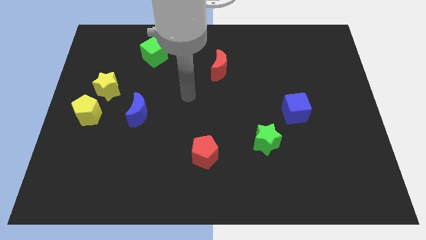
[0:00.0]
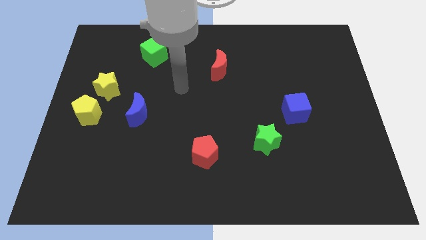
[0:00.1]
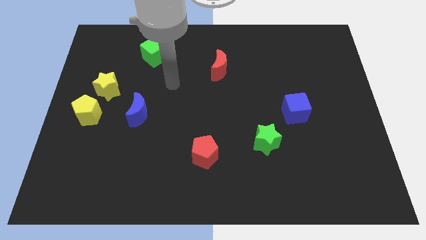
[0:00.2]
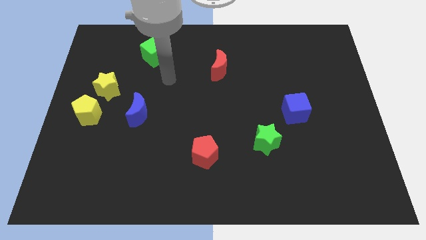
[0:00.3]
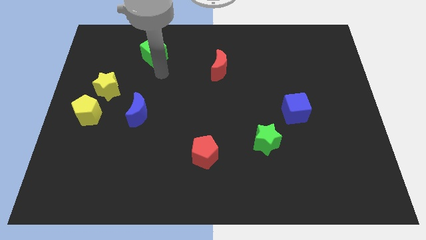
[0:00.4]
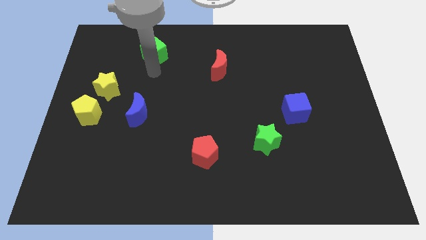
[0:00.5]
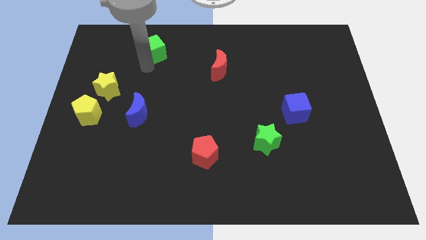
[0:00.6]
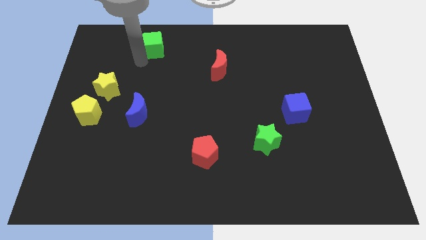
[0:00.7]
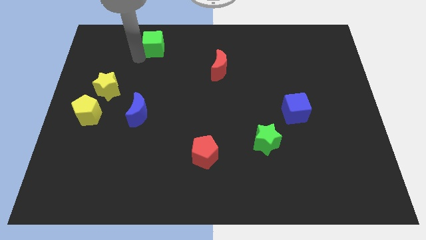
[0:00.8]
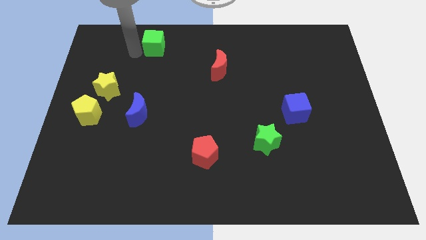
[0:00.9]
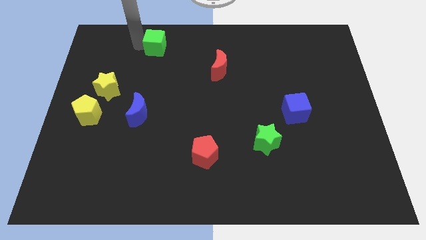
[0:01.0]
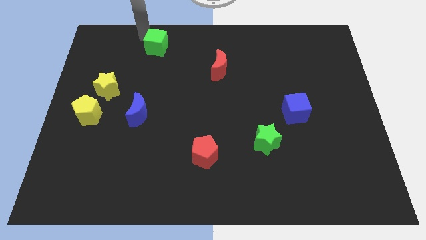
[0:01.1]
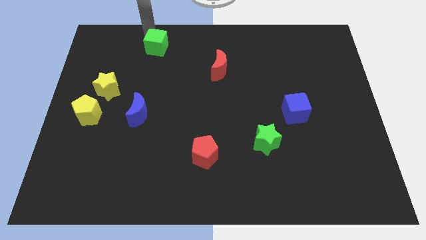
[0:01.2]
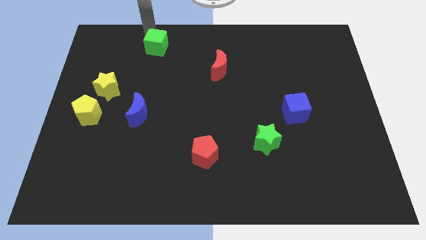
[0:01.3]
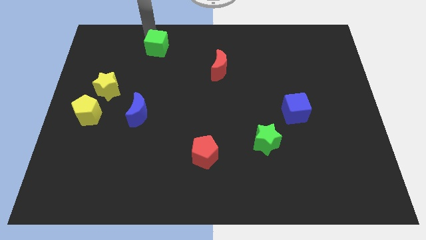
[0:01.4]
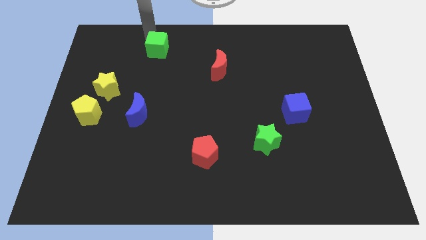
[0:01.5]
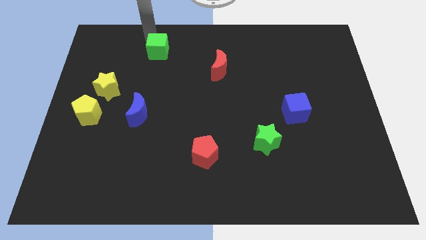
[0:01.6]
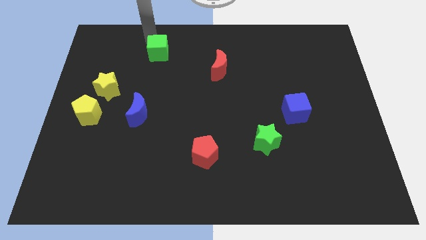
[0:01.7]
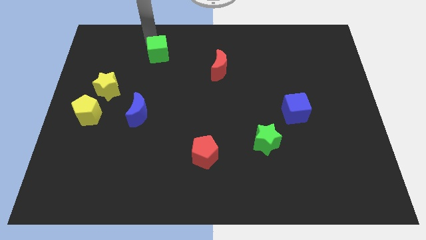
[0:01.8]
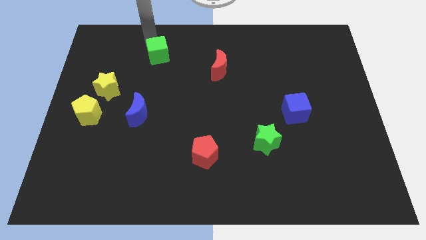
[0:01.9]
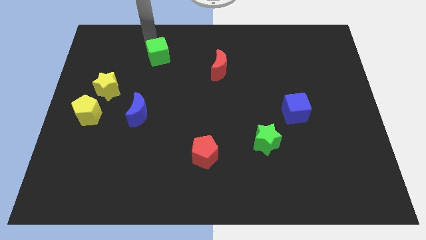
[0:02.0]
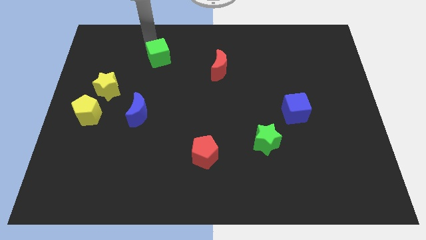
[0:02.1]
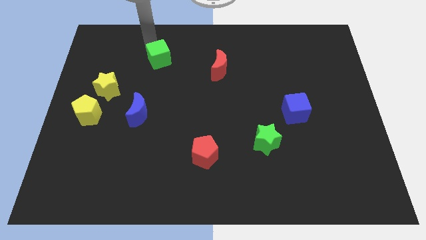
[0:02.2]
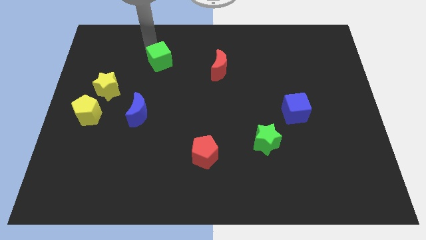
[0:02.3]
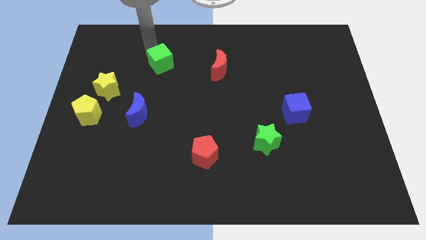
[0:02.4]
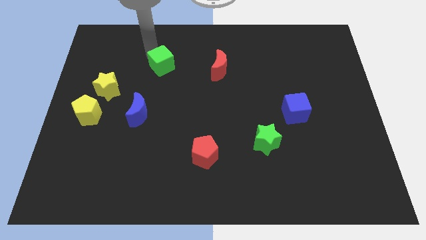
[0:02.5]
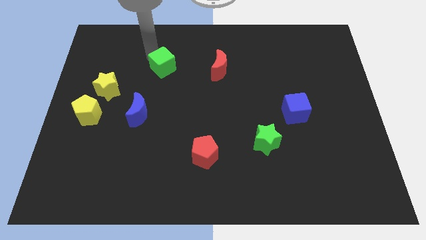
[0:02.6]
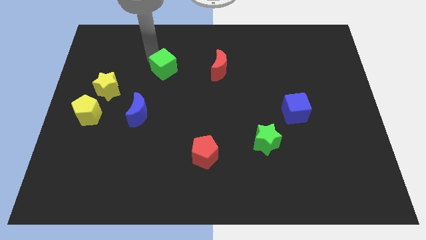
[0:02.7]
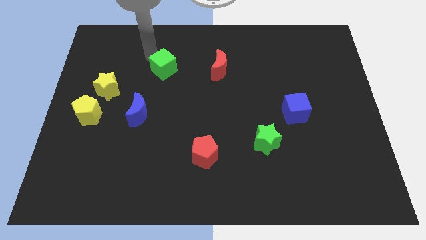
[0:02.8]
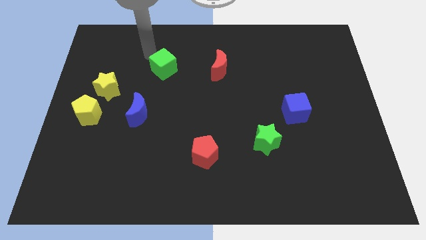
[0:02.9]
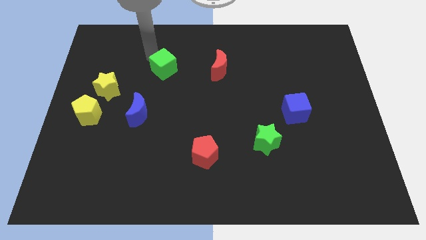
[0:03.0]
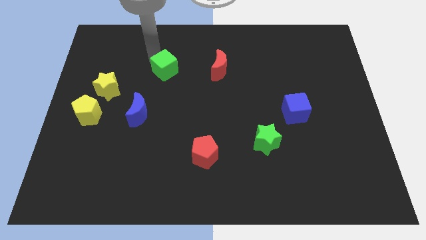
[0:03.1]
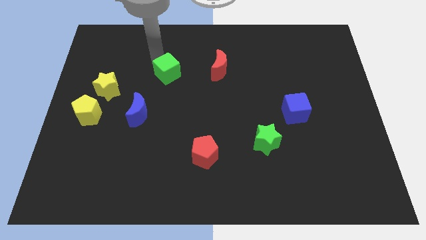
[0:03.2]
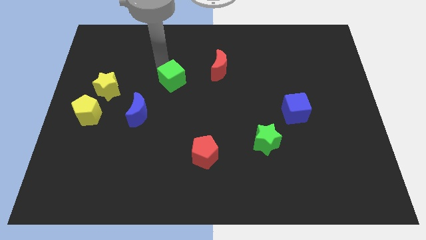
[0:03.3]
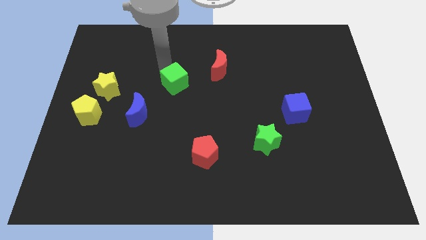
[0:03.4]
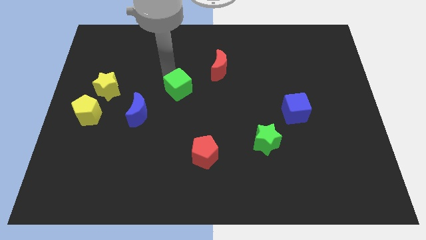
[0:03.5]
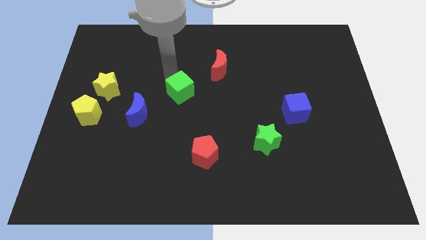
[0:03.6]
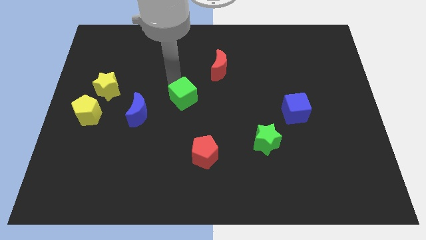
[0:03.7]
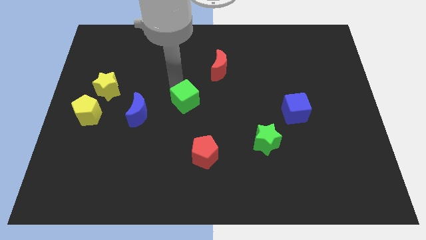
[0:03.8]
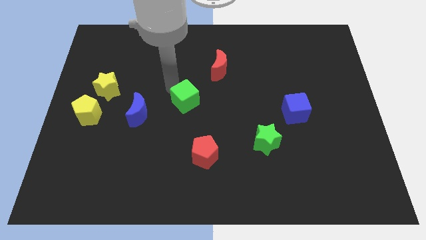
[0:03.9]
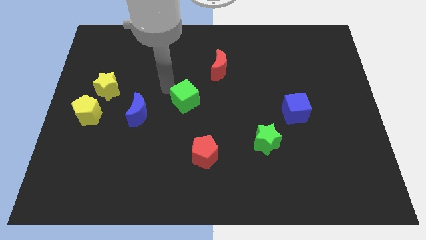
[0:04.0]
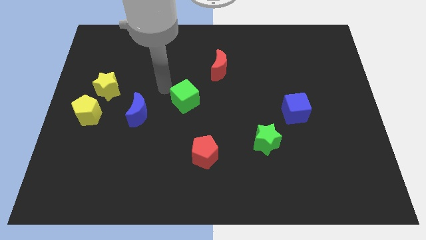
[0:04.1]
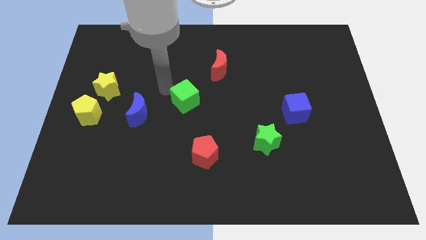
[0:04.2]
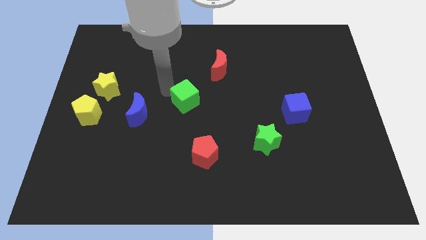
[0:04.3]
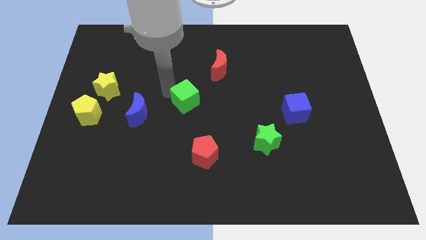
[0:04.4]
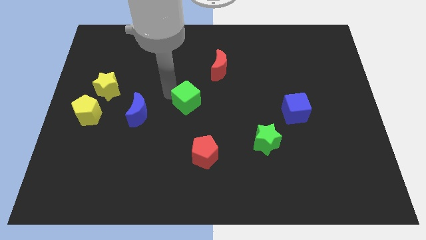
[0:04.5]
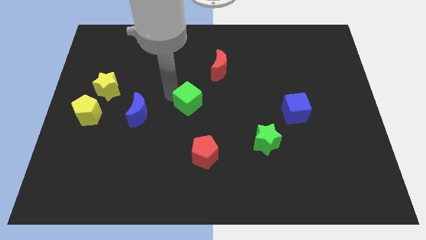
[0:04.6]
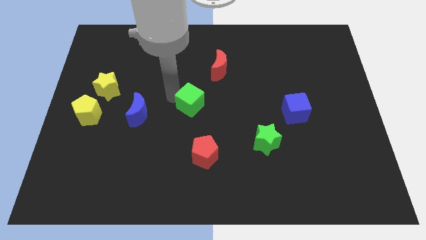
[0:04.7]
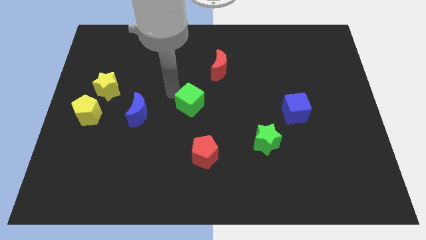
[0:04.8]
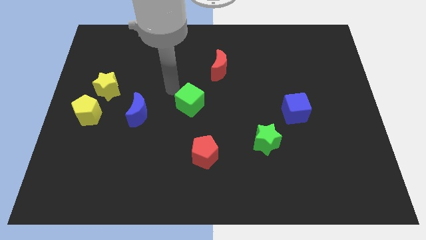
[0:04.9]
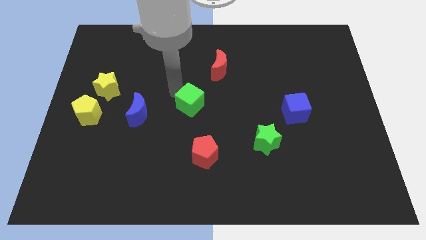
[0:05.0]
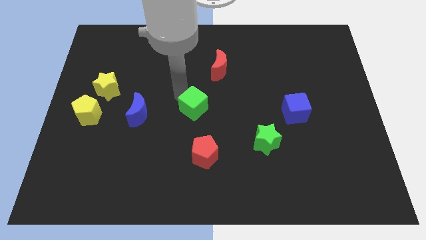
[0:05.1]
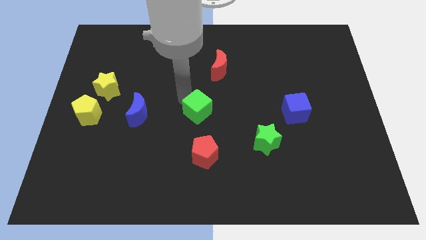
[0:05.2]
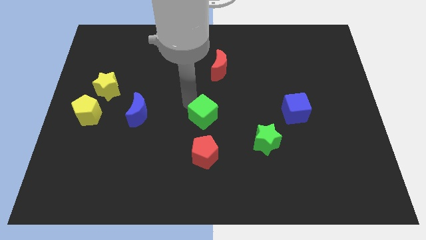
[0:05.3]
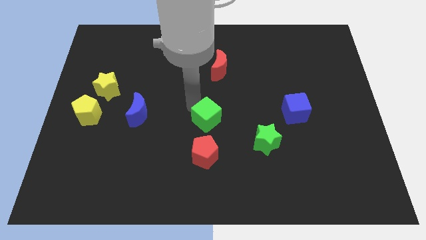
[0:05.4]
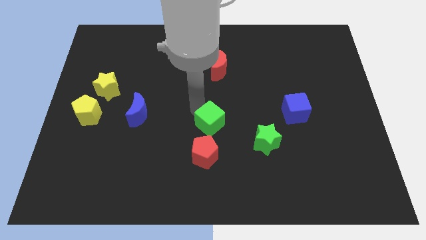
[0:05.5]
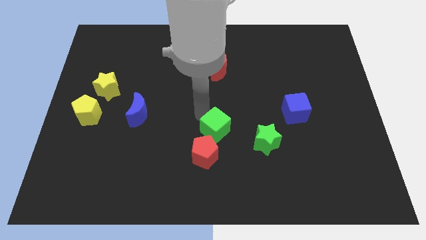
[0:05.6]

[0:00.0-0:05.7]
put the green cube to the top right of the red pentagon

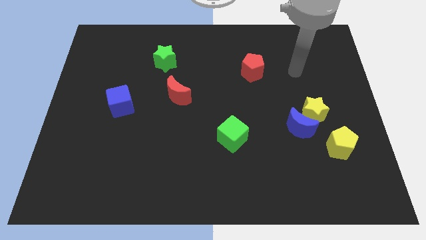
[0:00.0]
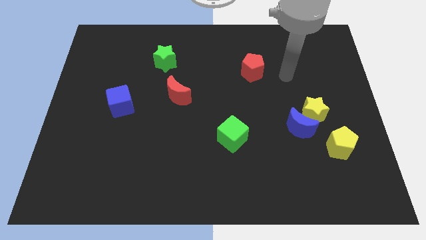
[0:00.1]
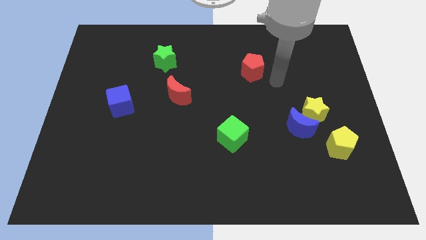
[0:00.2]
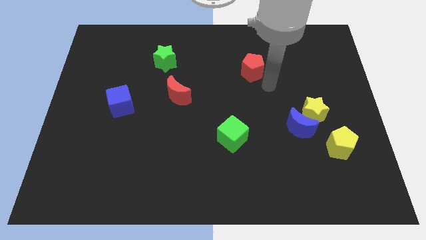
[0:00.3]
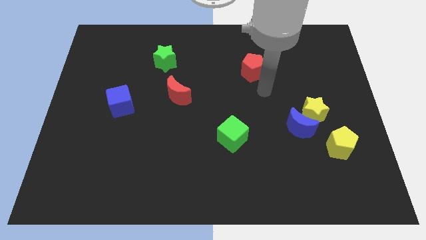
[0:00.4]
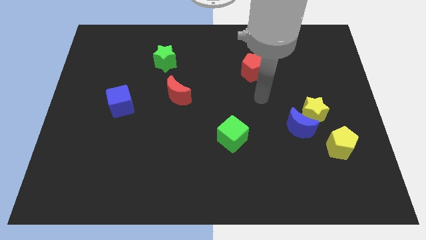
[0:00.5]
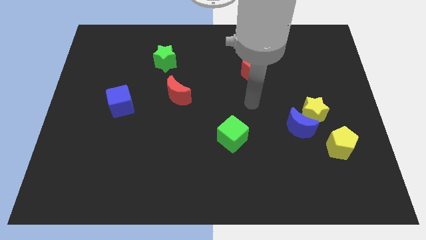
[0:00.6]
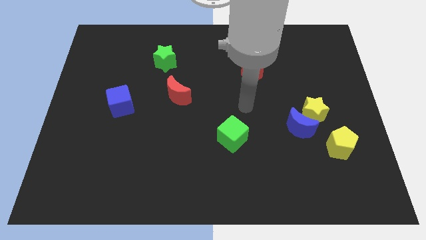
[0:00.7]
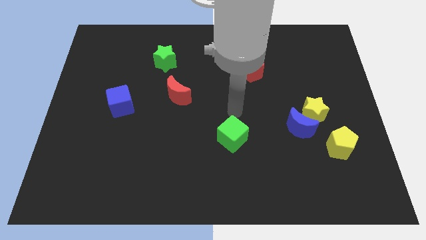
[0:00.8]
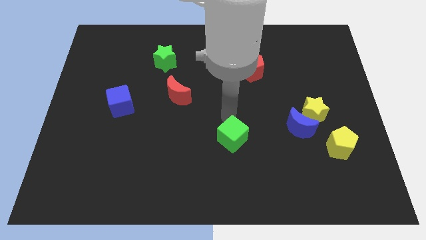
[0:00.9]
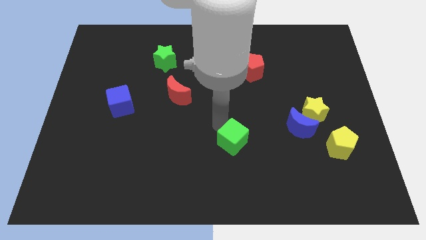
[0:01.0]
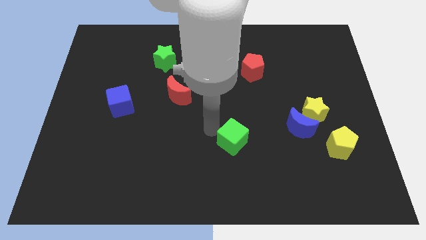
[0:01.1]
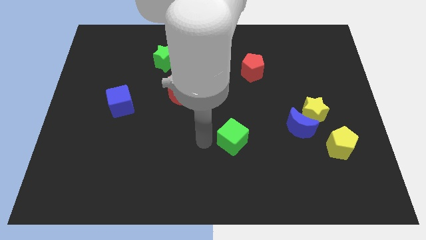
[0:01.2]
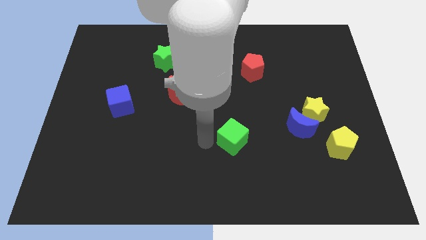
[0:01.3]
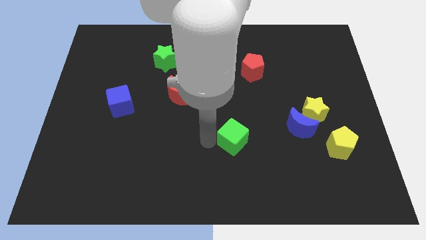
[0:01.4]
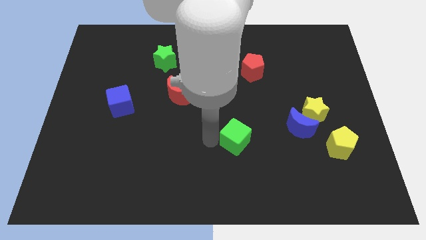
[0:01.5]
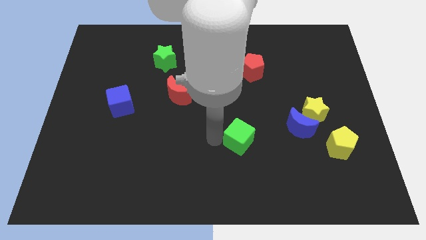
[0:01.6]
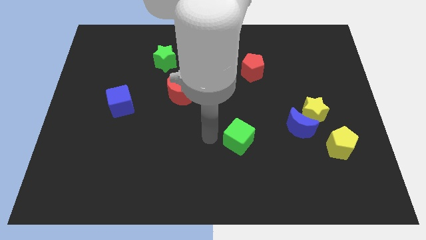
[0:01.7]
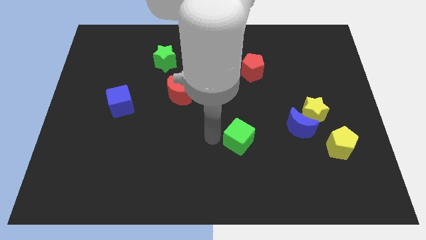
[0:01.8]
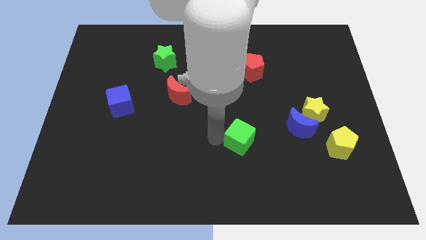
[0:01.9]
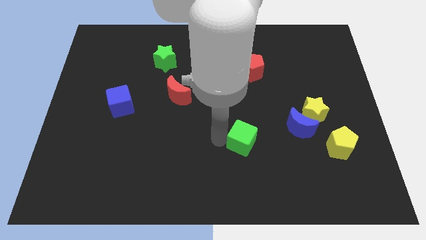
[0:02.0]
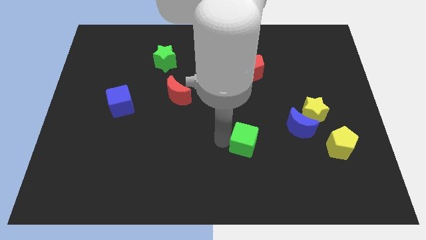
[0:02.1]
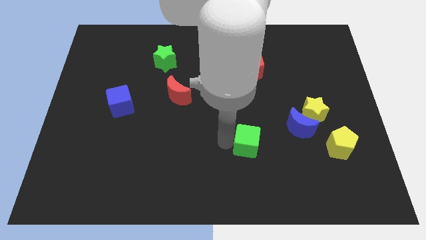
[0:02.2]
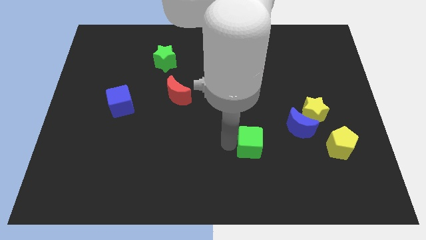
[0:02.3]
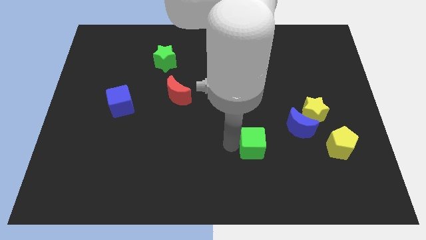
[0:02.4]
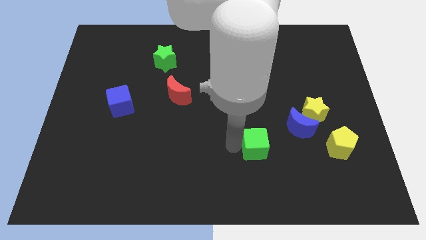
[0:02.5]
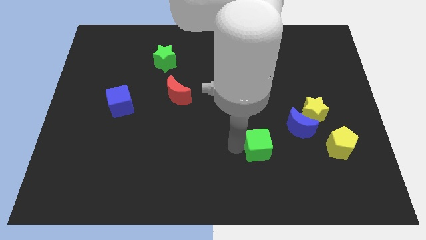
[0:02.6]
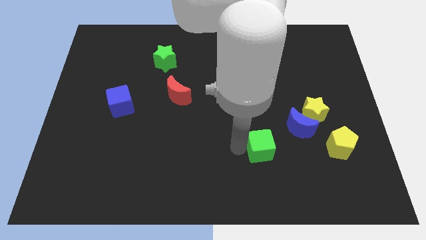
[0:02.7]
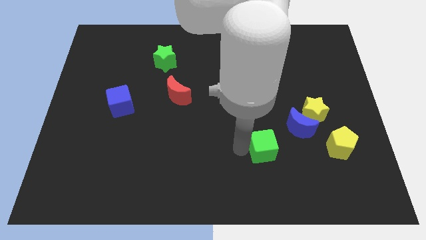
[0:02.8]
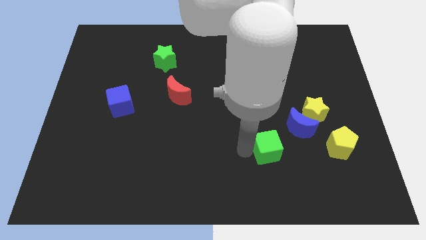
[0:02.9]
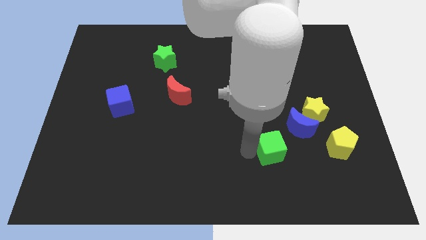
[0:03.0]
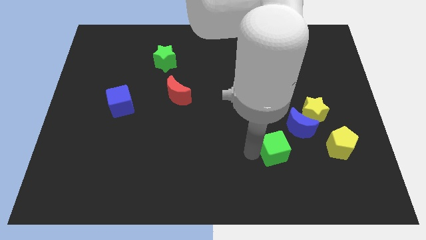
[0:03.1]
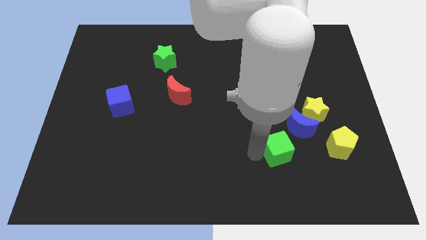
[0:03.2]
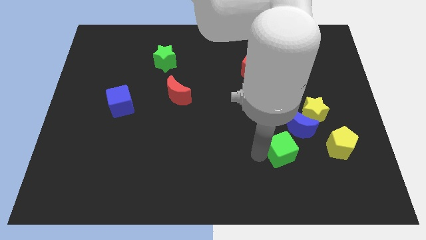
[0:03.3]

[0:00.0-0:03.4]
push the green cube to the bottom left side of the yellow star
